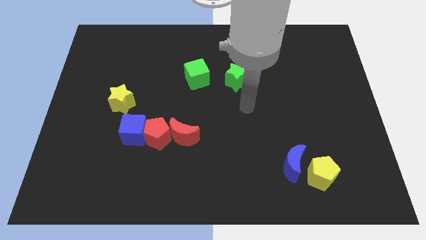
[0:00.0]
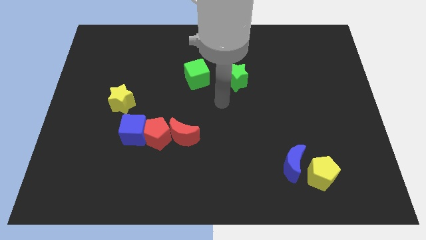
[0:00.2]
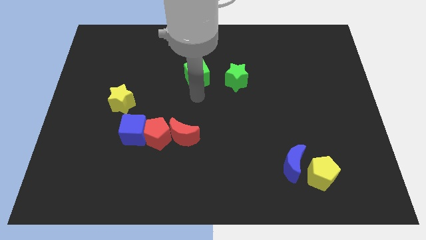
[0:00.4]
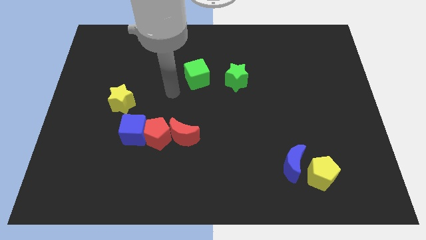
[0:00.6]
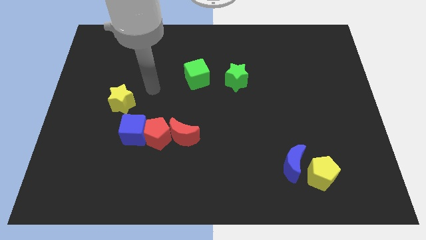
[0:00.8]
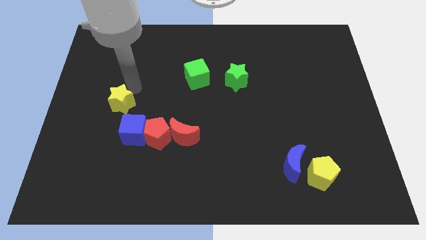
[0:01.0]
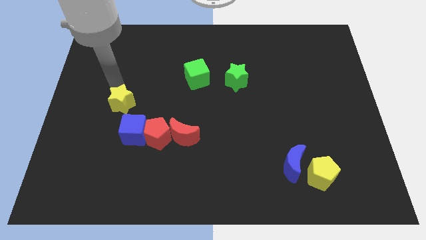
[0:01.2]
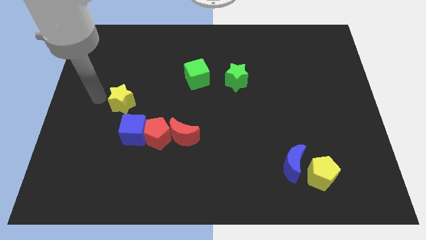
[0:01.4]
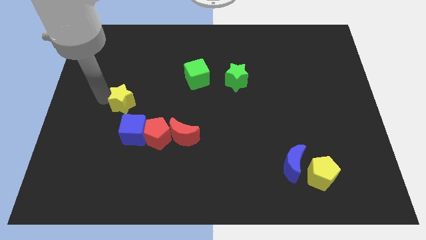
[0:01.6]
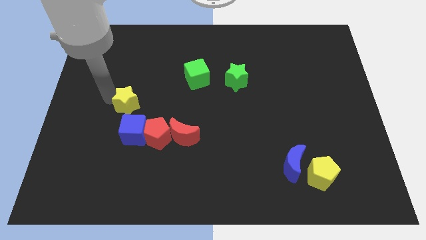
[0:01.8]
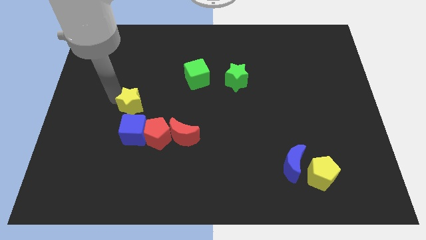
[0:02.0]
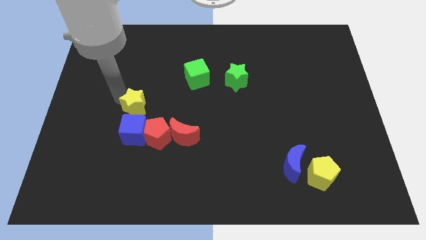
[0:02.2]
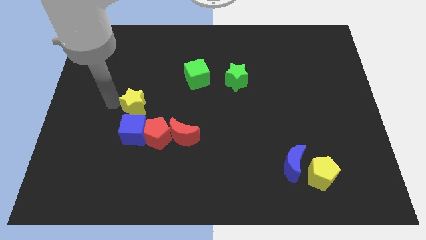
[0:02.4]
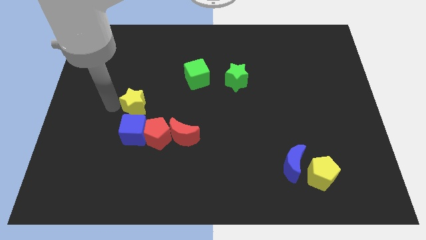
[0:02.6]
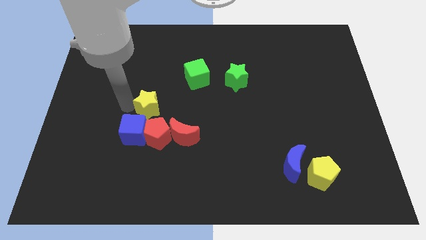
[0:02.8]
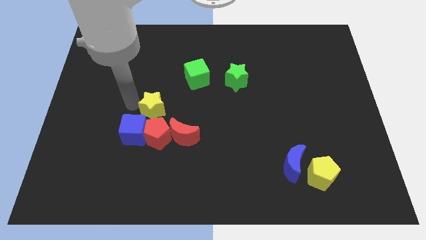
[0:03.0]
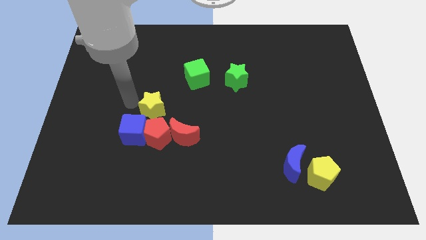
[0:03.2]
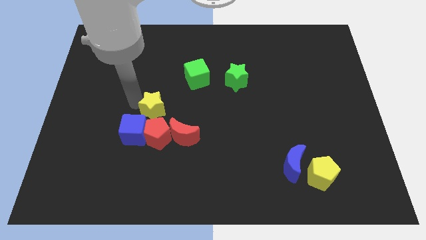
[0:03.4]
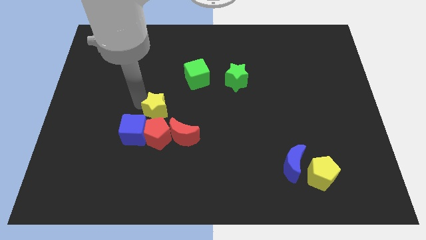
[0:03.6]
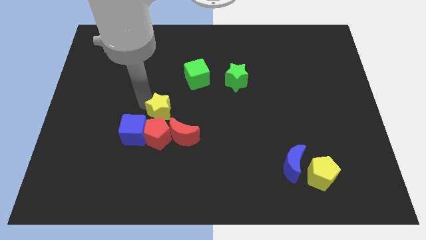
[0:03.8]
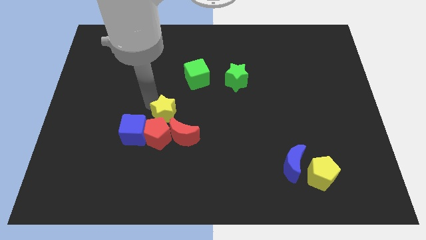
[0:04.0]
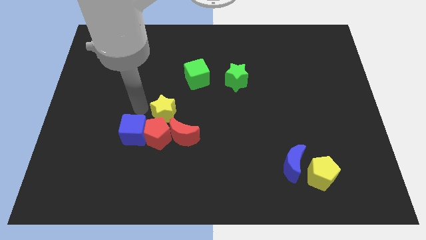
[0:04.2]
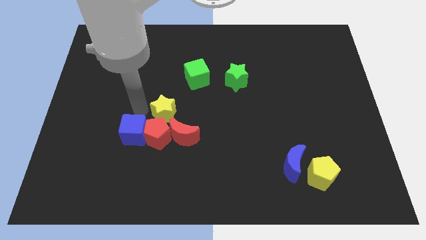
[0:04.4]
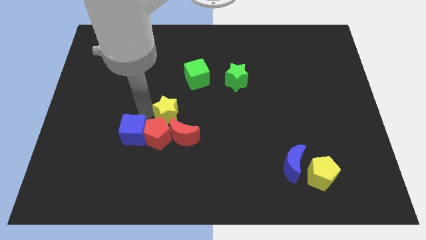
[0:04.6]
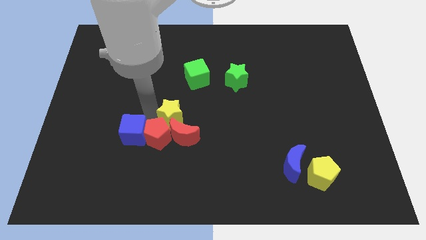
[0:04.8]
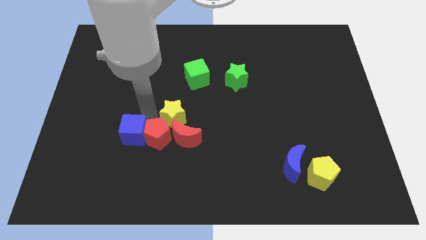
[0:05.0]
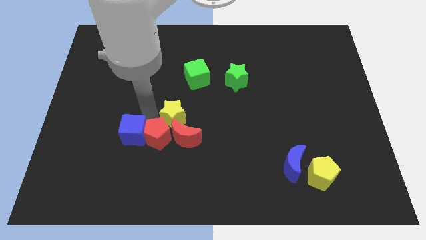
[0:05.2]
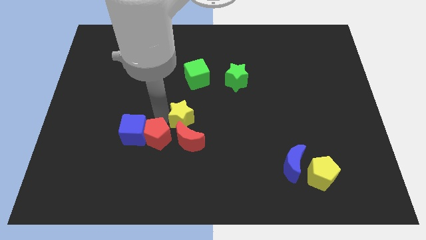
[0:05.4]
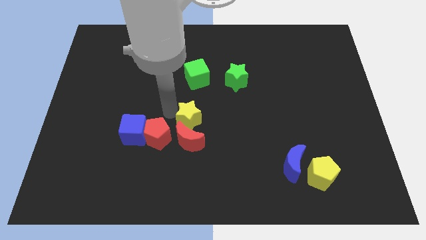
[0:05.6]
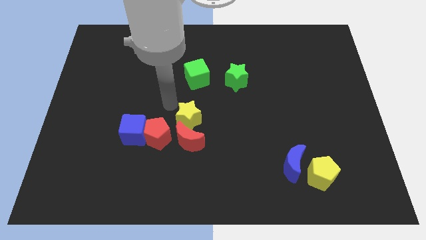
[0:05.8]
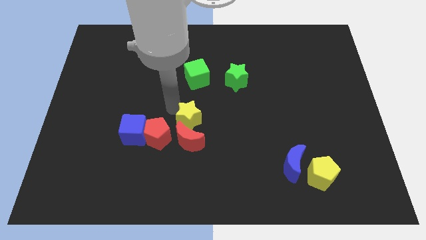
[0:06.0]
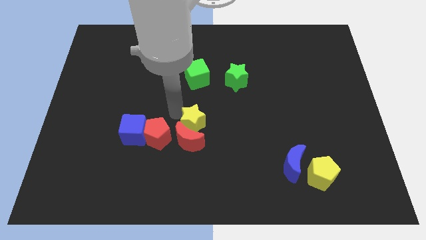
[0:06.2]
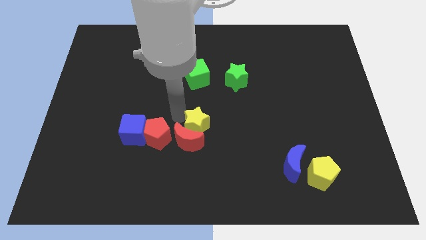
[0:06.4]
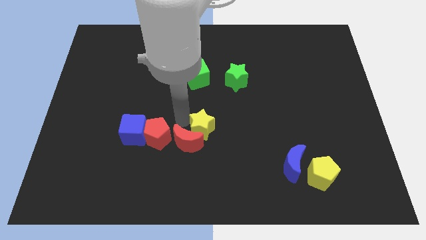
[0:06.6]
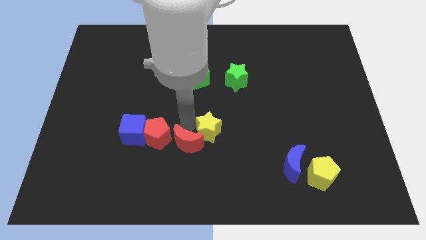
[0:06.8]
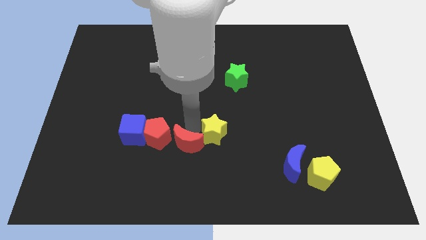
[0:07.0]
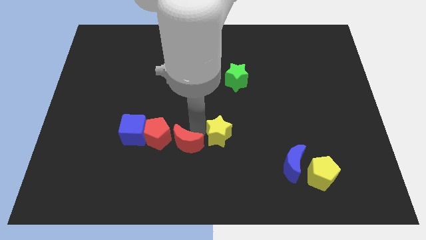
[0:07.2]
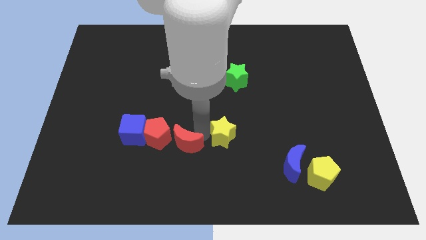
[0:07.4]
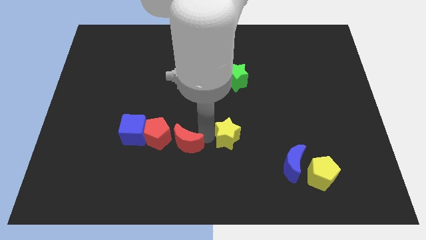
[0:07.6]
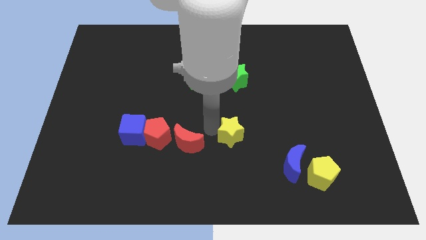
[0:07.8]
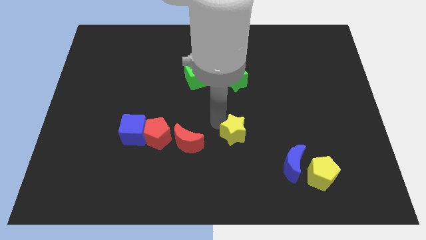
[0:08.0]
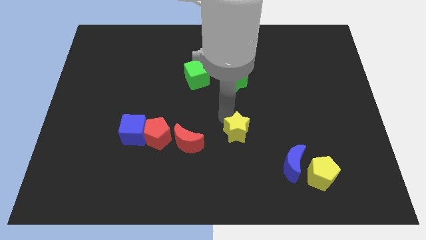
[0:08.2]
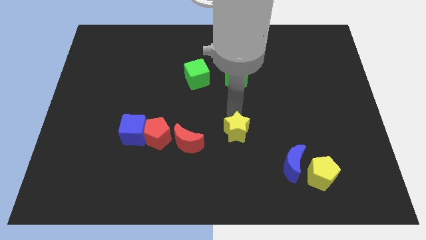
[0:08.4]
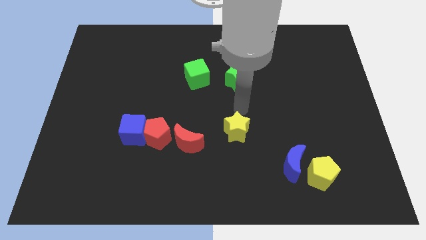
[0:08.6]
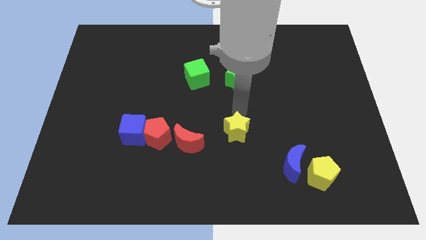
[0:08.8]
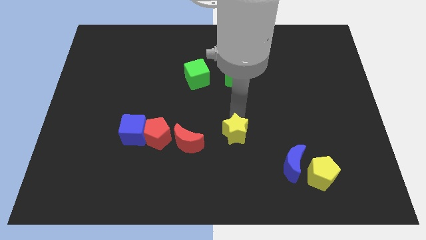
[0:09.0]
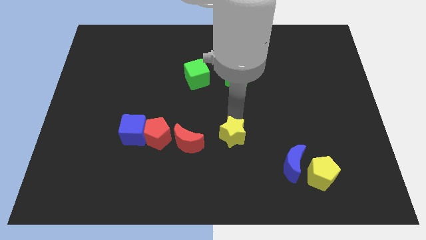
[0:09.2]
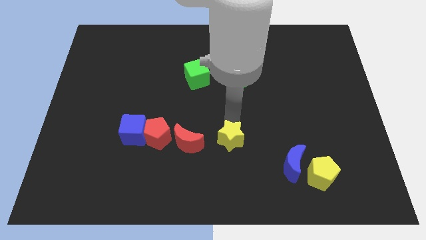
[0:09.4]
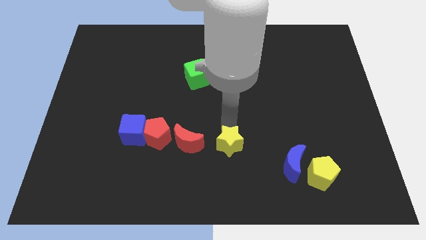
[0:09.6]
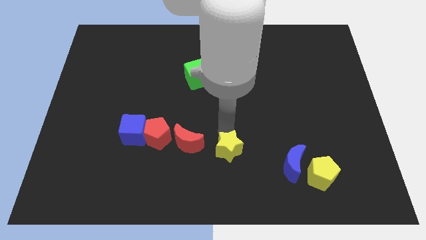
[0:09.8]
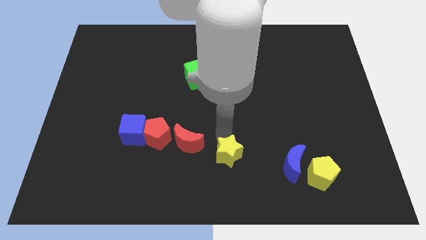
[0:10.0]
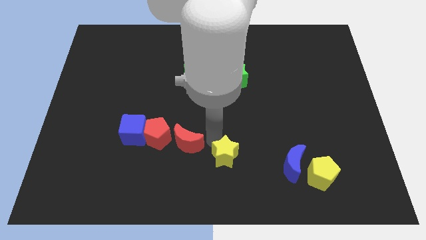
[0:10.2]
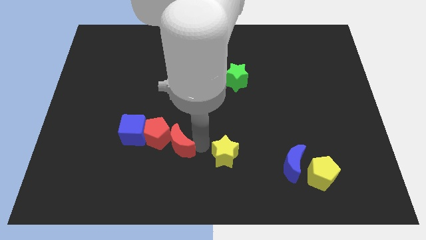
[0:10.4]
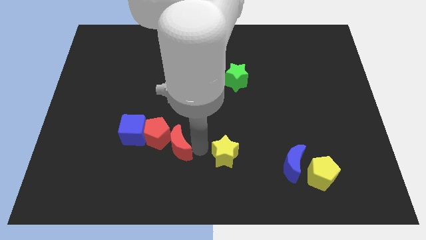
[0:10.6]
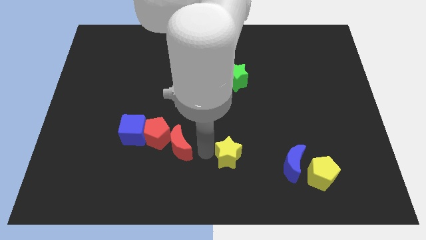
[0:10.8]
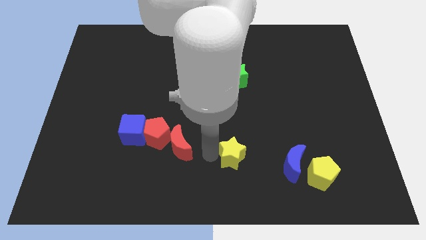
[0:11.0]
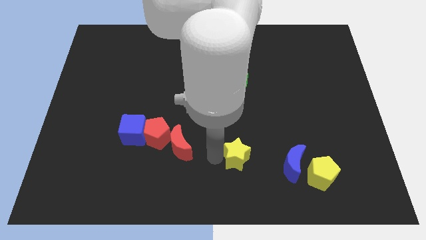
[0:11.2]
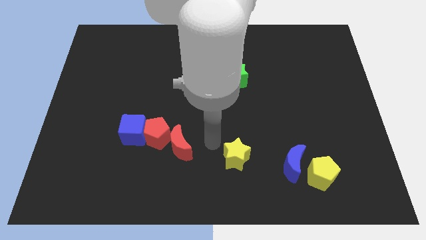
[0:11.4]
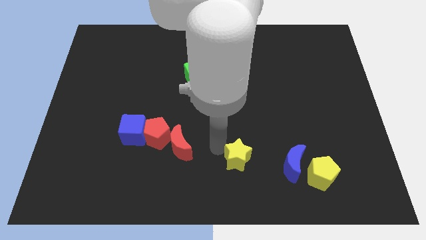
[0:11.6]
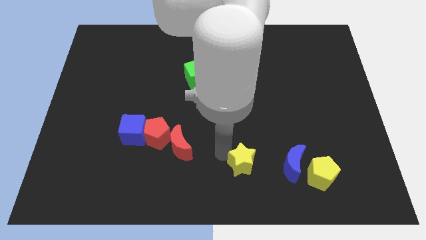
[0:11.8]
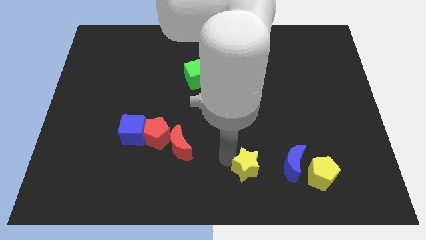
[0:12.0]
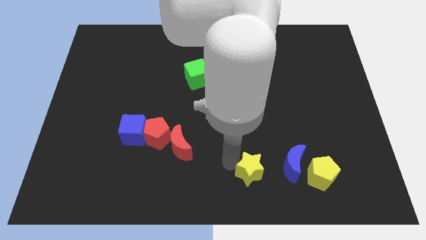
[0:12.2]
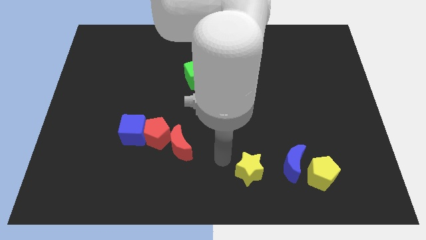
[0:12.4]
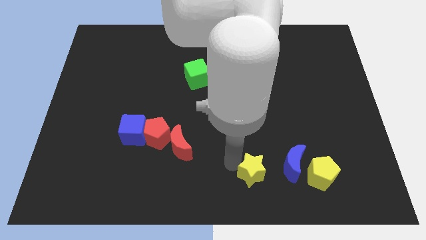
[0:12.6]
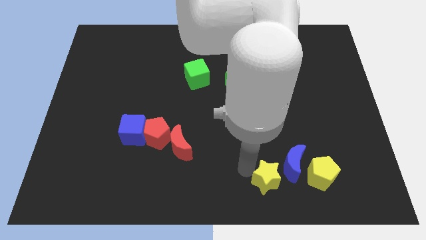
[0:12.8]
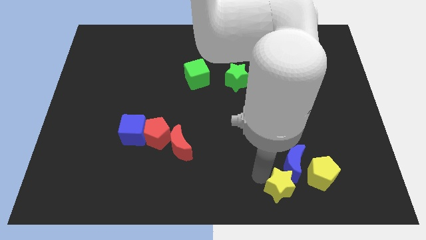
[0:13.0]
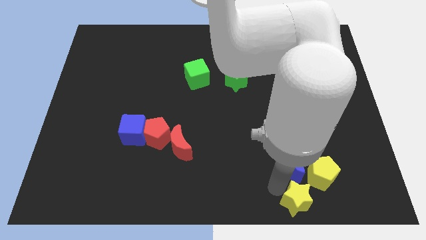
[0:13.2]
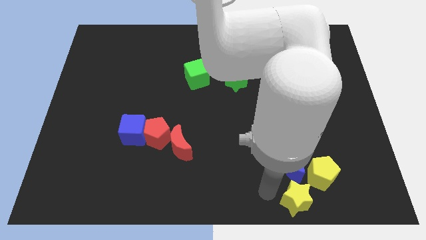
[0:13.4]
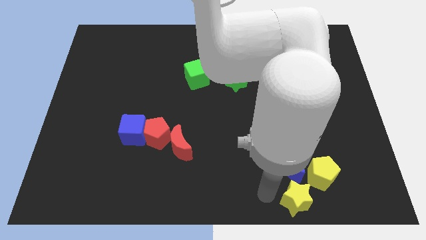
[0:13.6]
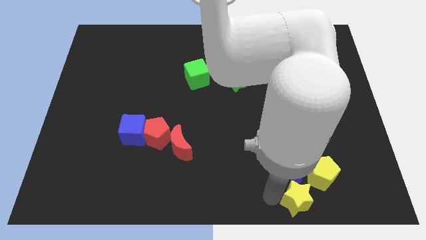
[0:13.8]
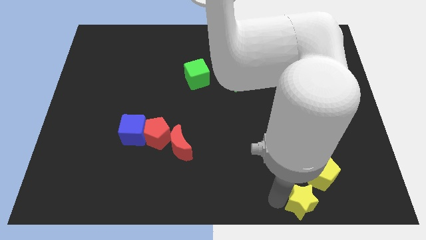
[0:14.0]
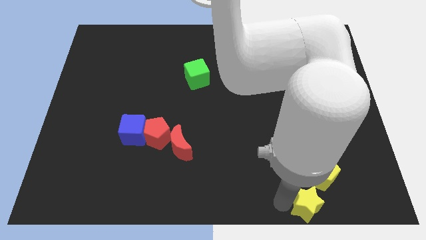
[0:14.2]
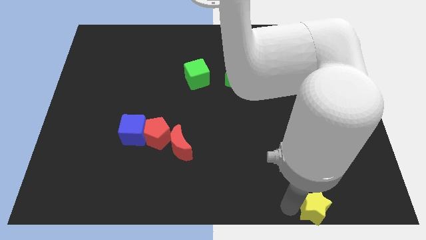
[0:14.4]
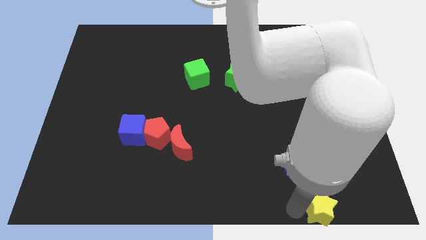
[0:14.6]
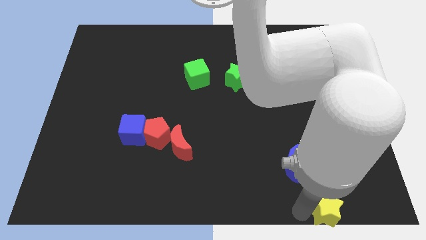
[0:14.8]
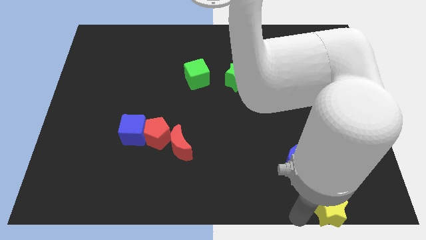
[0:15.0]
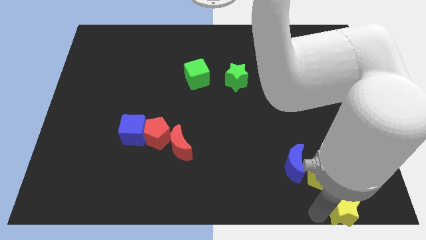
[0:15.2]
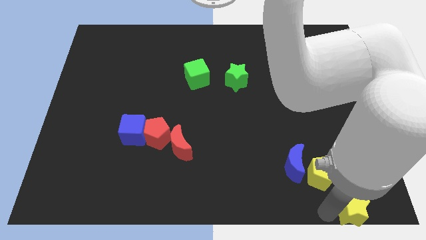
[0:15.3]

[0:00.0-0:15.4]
move the yellow star to the lower right corner
